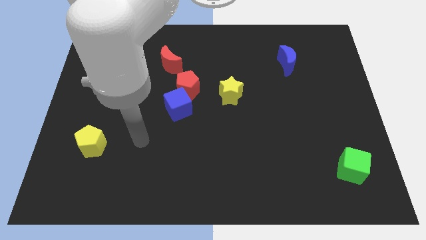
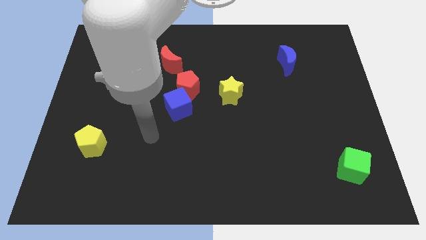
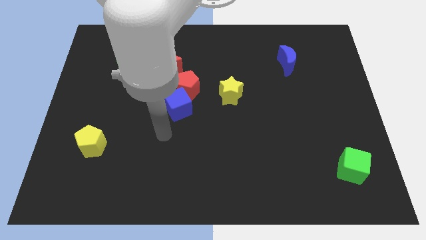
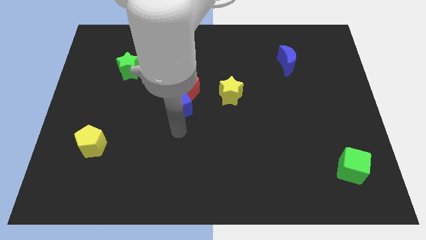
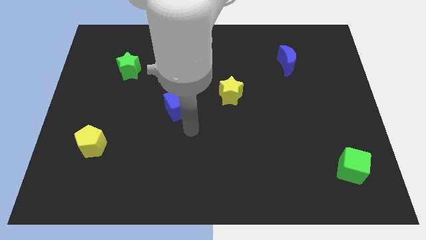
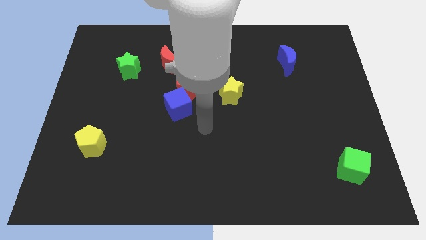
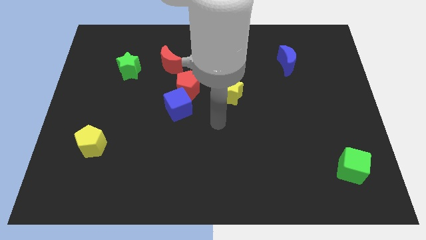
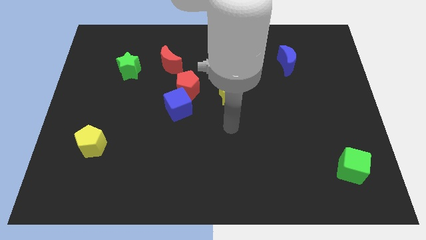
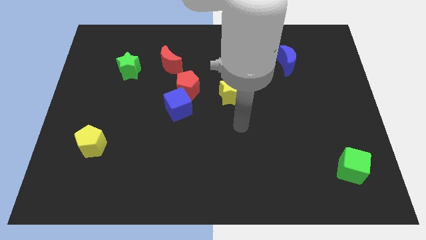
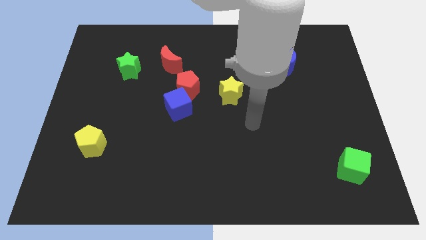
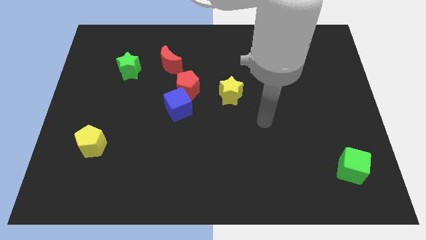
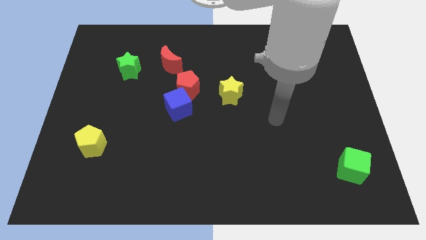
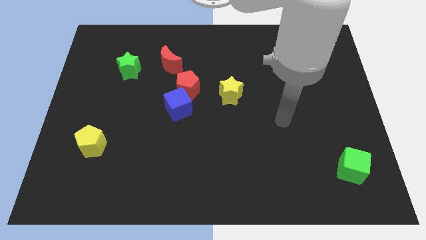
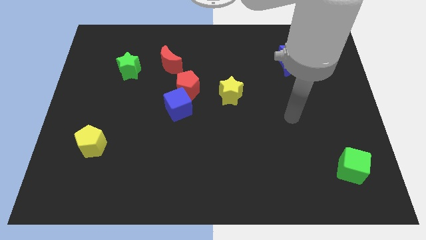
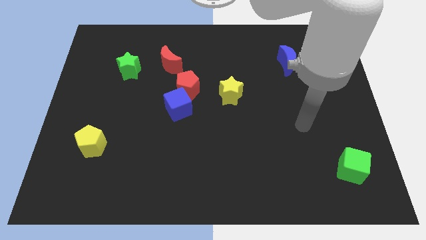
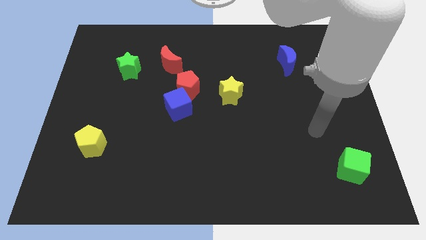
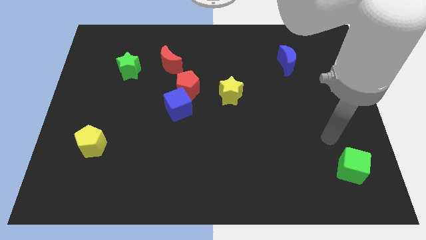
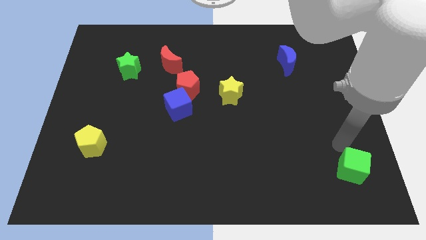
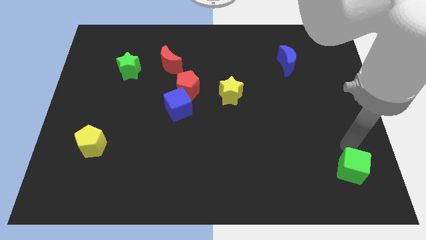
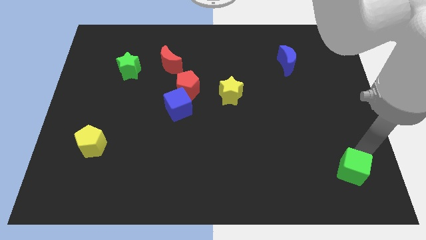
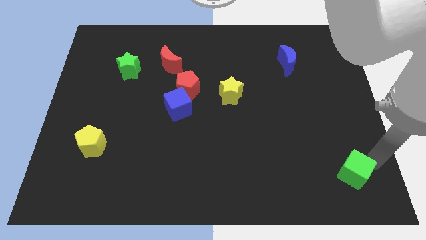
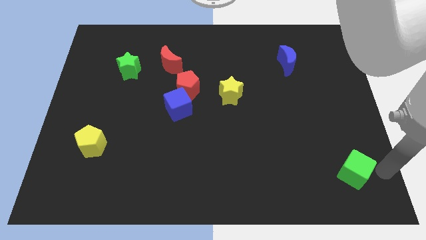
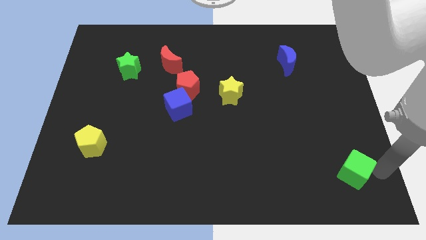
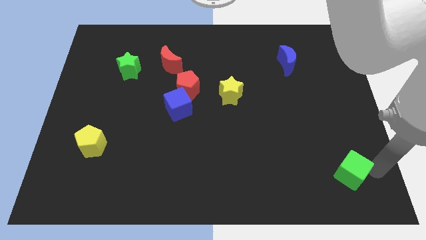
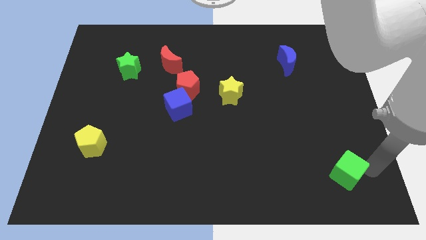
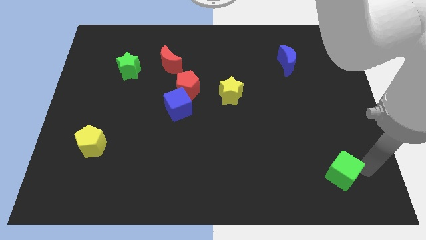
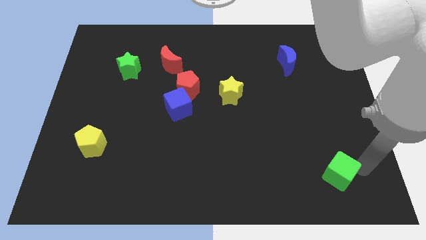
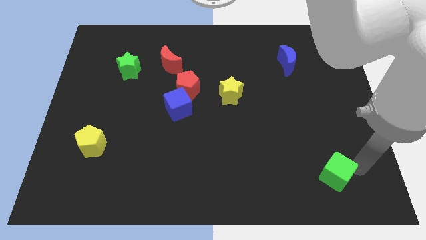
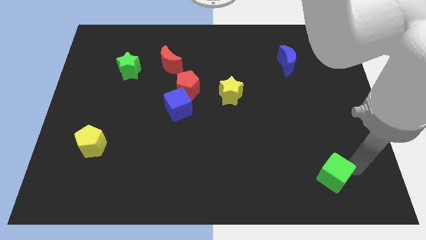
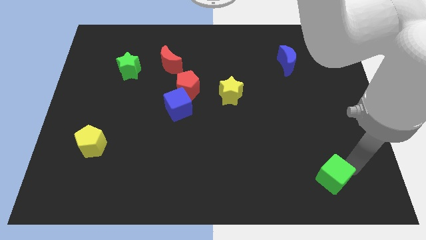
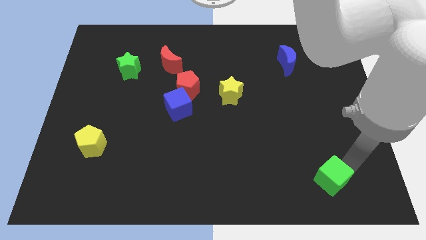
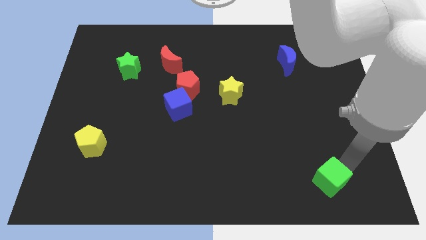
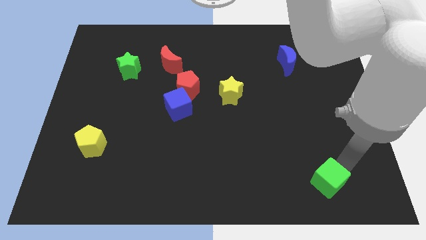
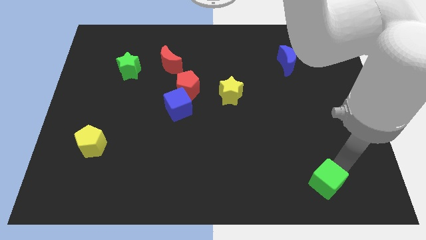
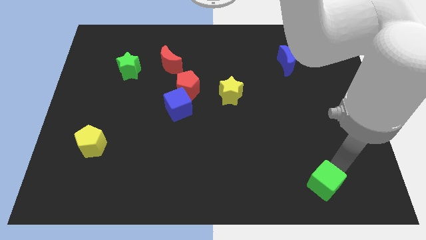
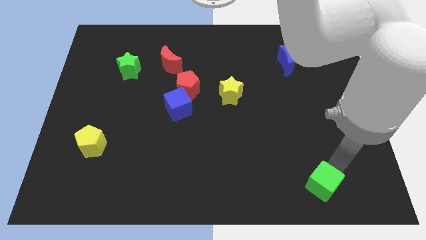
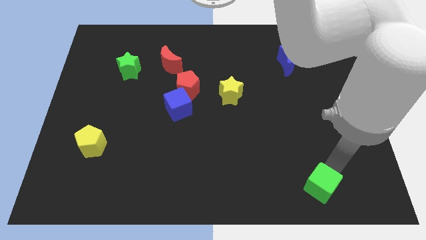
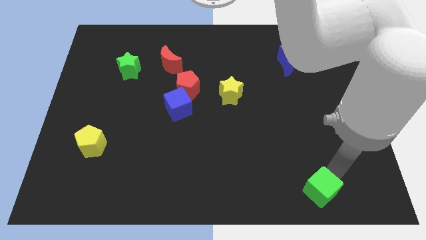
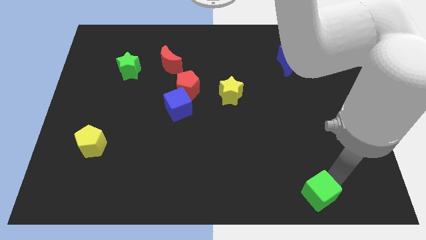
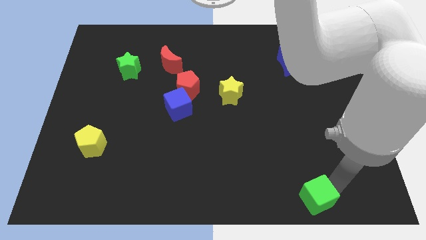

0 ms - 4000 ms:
push the green cube left a bit

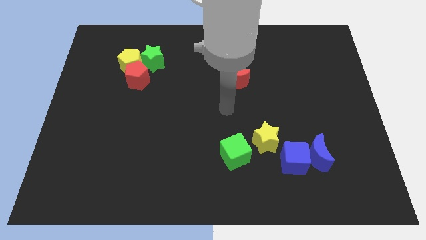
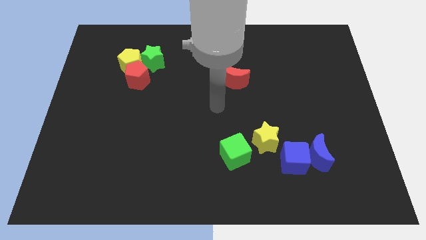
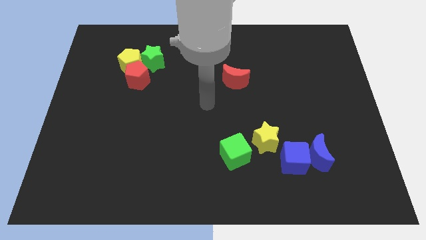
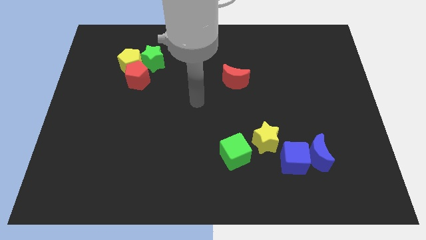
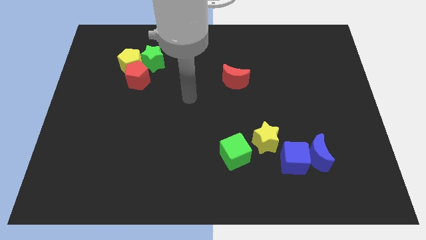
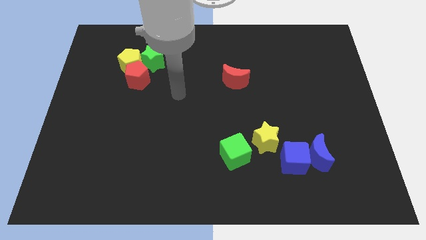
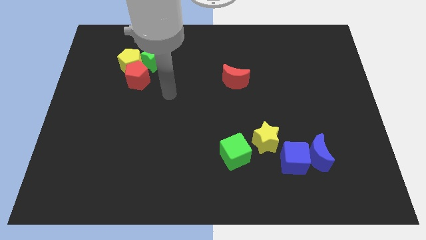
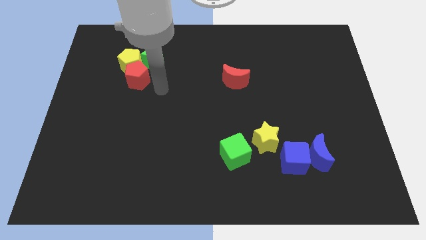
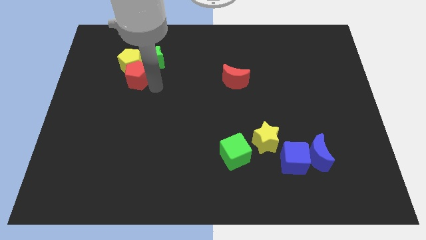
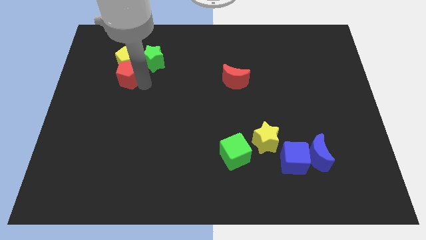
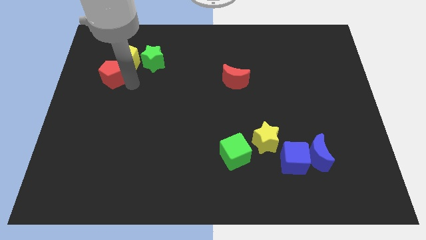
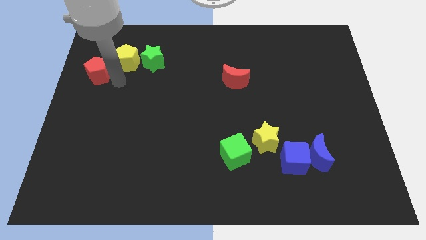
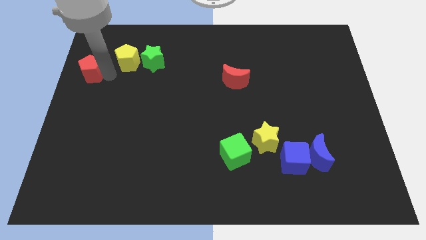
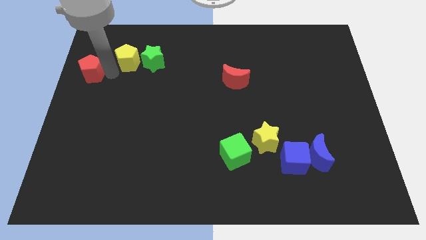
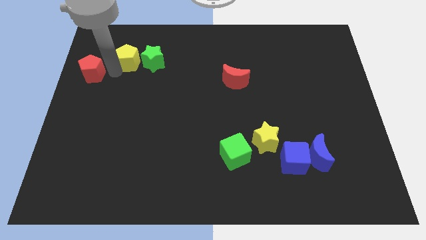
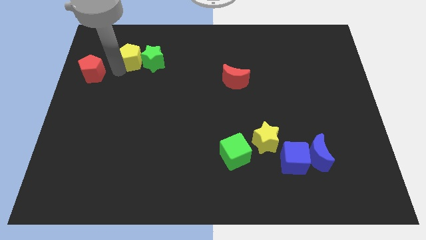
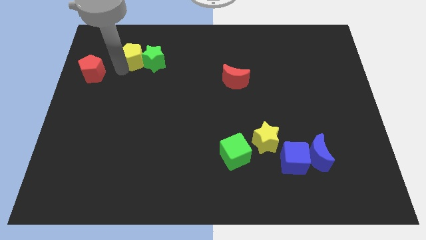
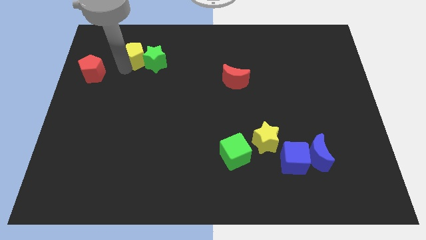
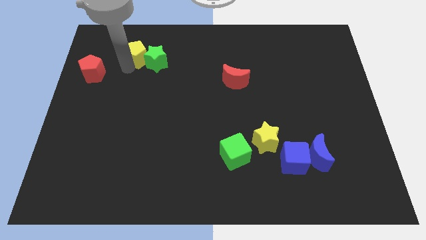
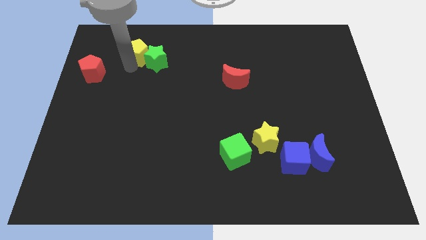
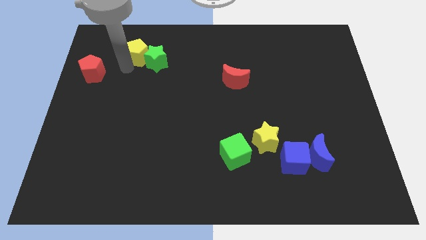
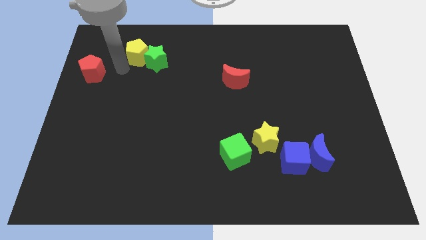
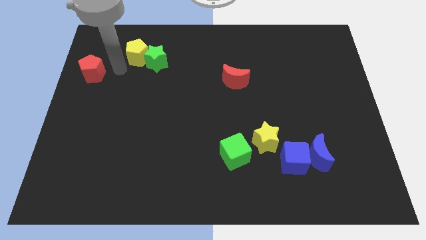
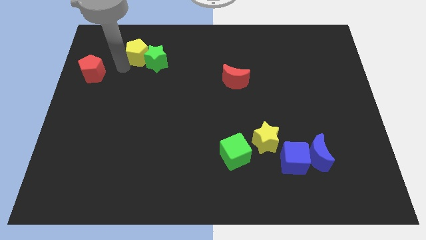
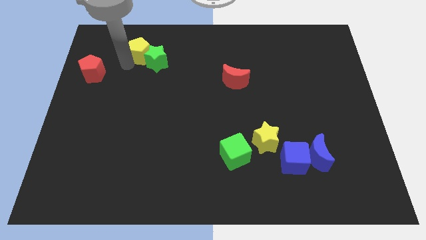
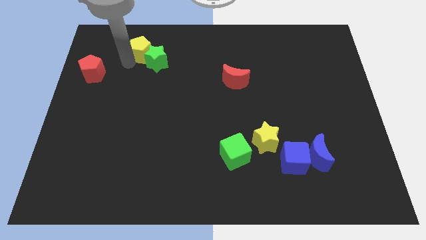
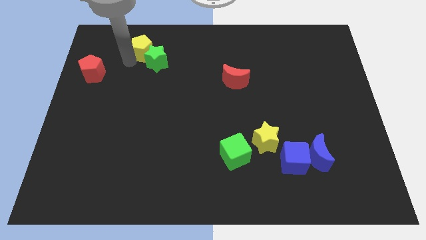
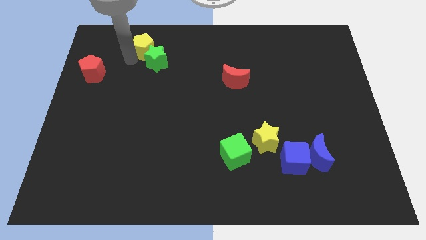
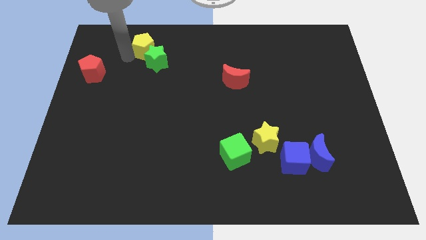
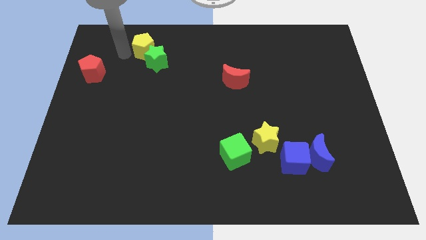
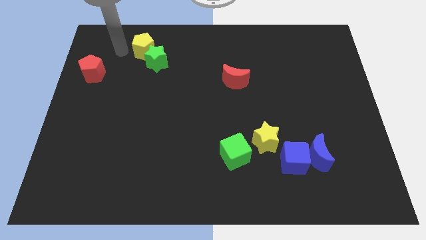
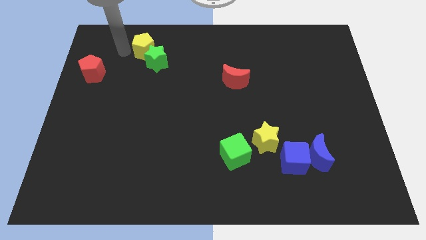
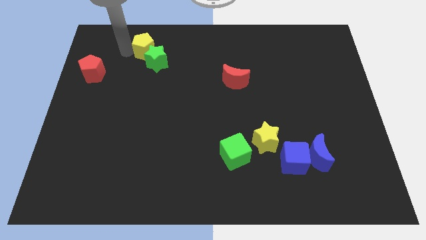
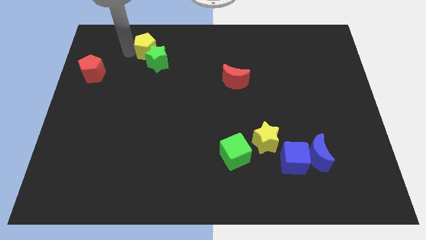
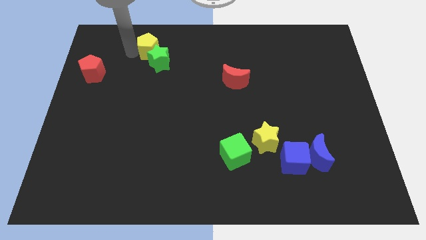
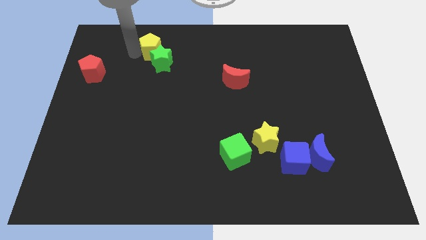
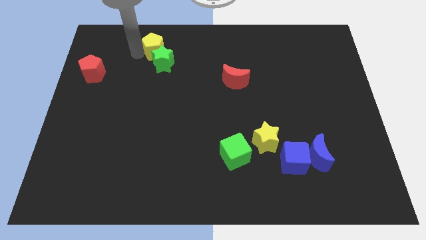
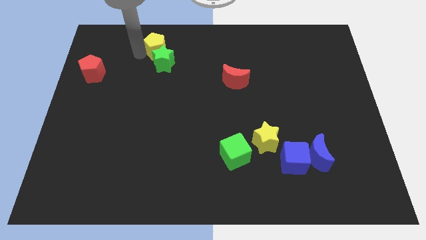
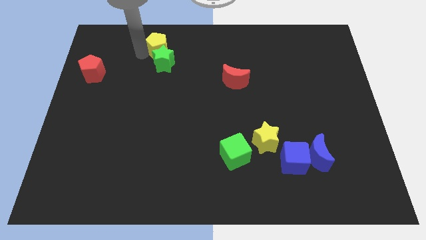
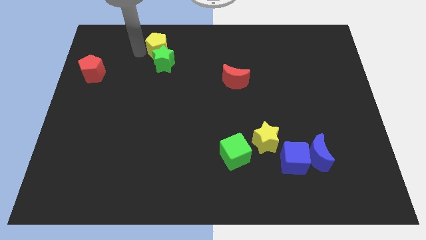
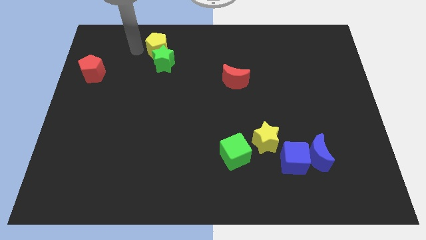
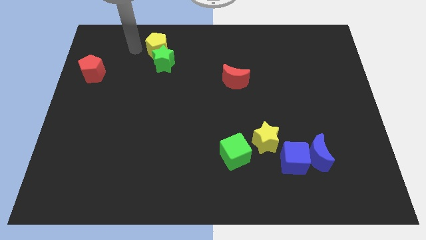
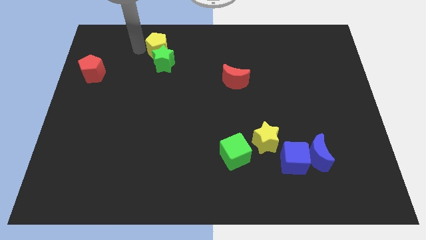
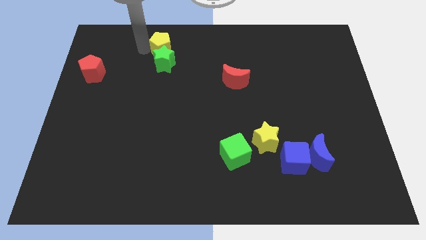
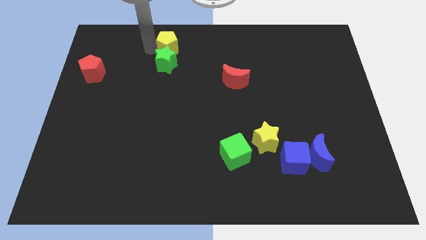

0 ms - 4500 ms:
move the yellow pentagon to the right somewhat
